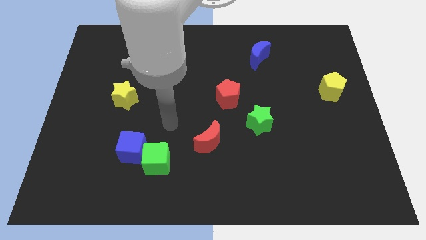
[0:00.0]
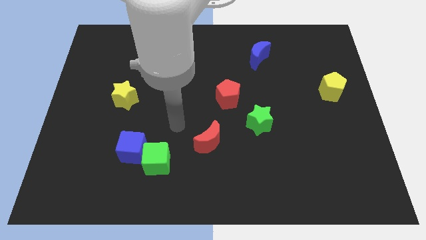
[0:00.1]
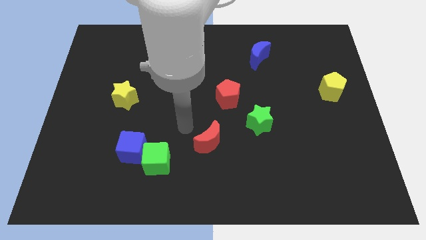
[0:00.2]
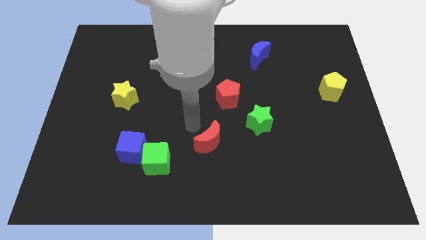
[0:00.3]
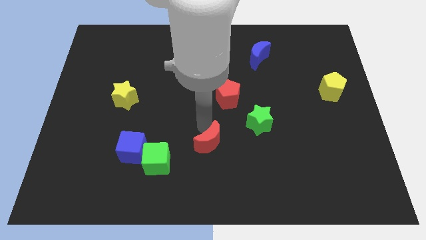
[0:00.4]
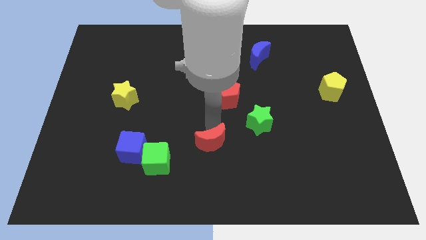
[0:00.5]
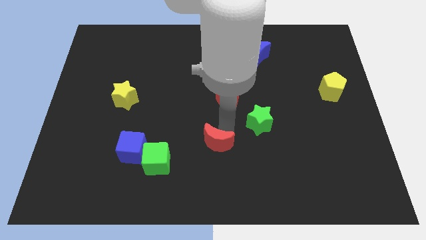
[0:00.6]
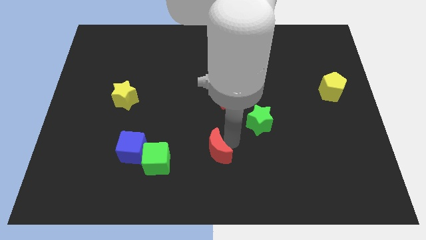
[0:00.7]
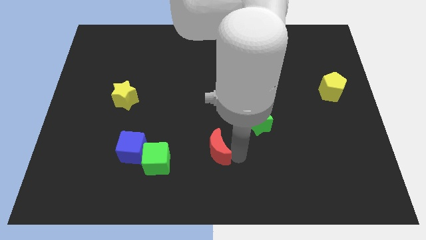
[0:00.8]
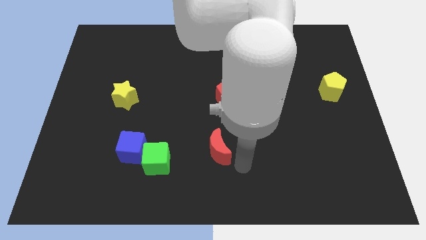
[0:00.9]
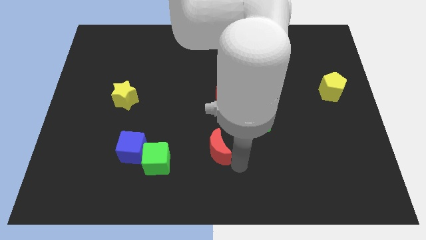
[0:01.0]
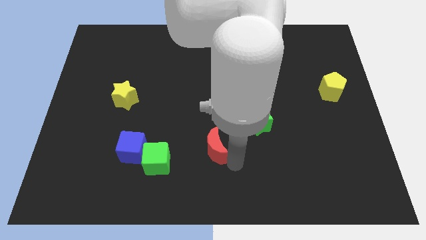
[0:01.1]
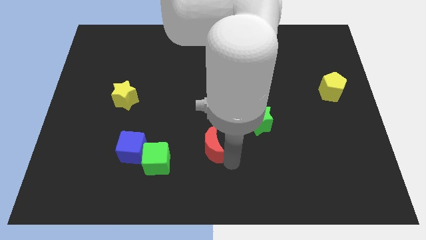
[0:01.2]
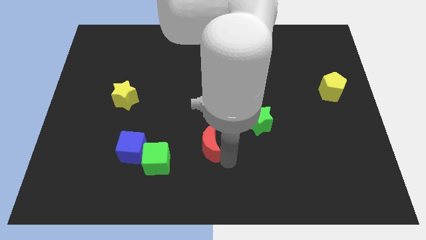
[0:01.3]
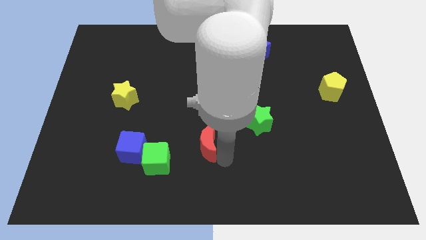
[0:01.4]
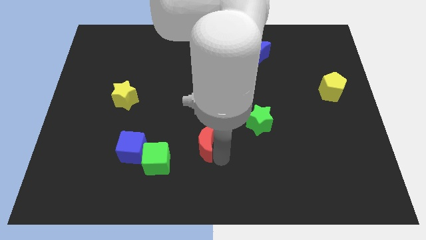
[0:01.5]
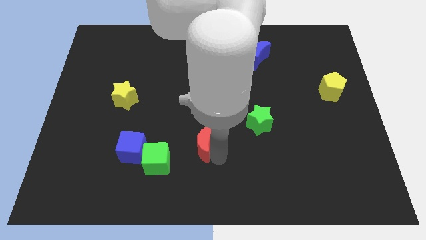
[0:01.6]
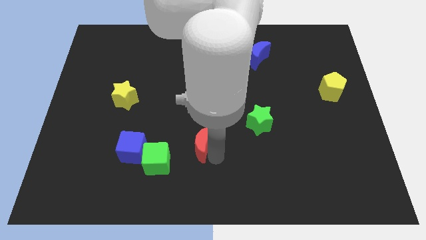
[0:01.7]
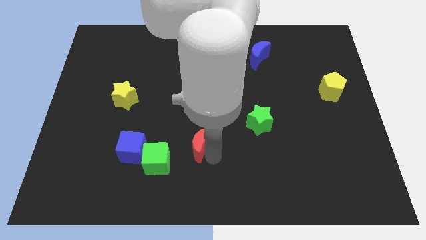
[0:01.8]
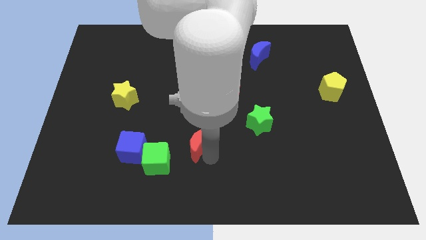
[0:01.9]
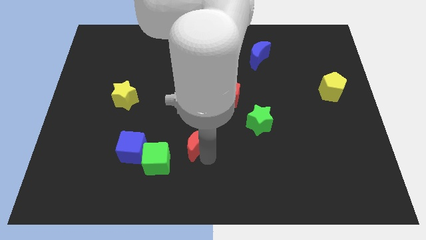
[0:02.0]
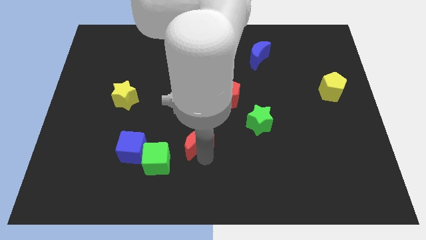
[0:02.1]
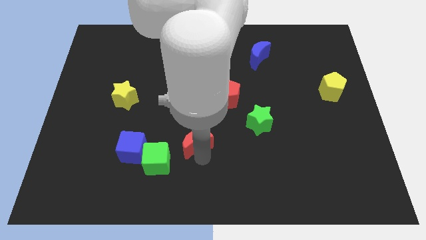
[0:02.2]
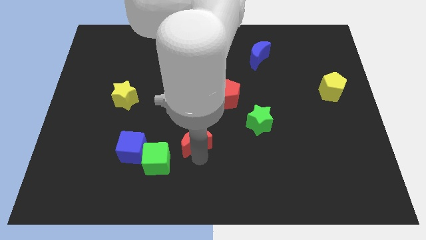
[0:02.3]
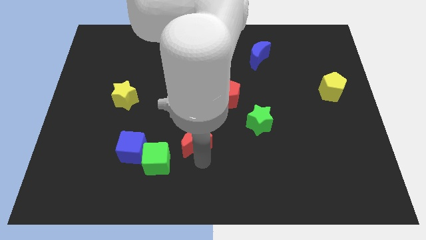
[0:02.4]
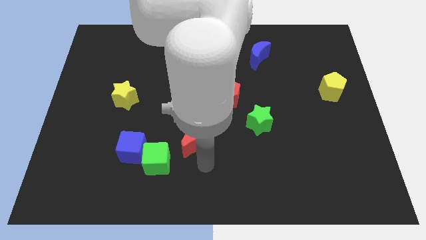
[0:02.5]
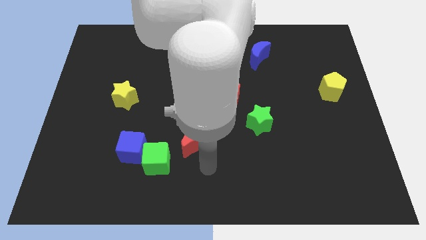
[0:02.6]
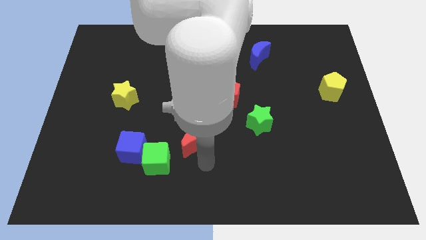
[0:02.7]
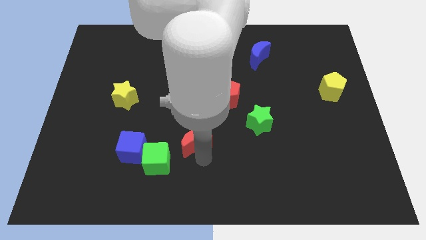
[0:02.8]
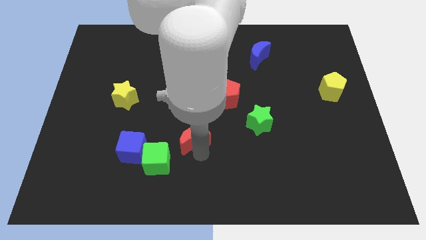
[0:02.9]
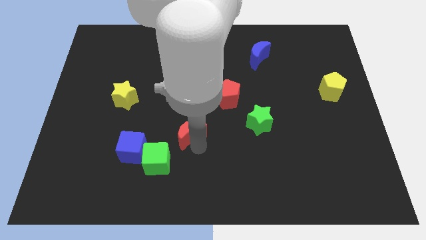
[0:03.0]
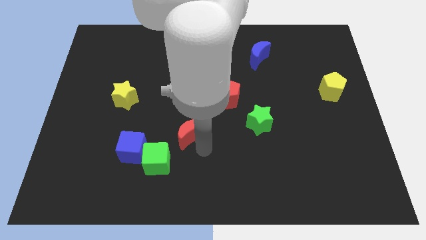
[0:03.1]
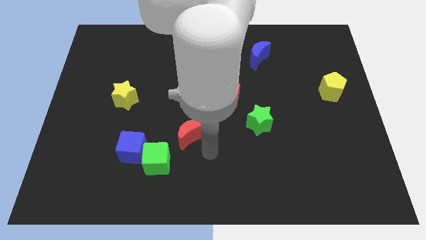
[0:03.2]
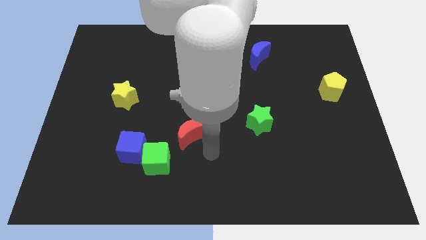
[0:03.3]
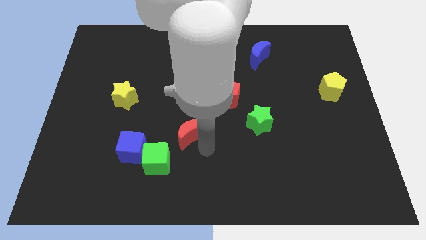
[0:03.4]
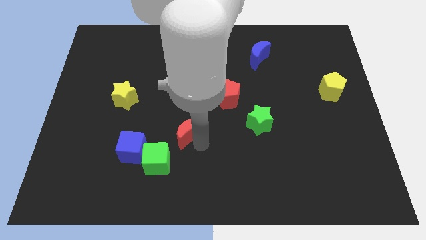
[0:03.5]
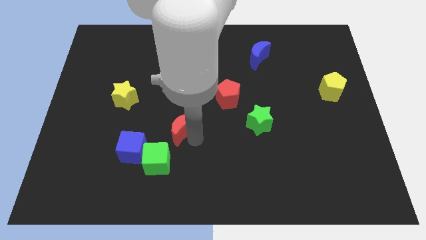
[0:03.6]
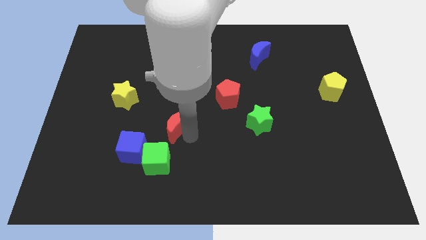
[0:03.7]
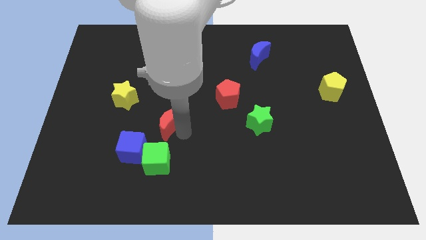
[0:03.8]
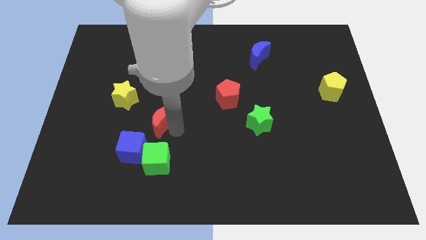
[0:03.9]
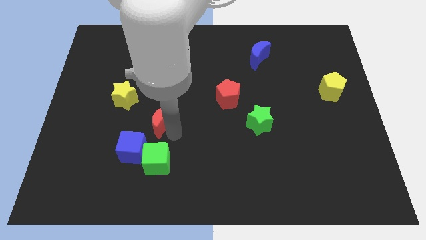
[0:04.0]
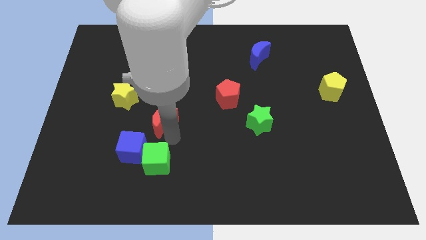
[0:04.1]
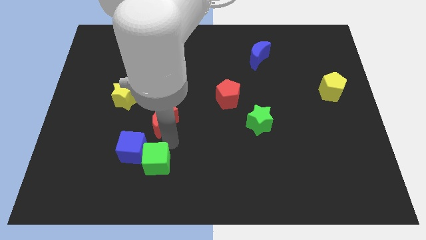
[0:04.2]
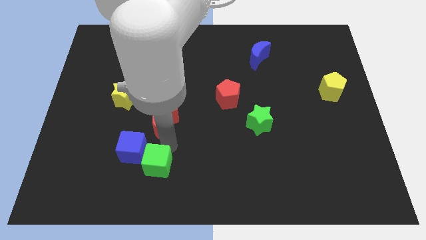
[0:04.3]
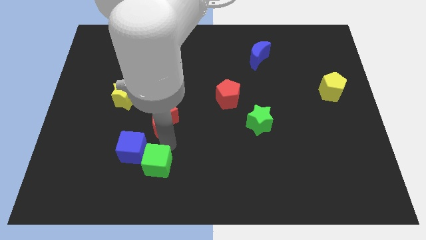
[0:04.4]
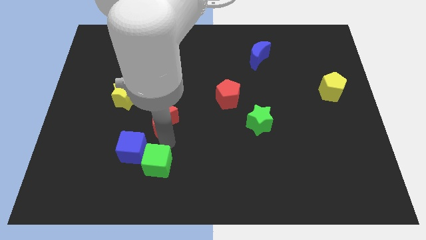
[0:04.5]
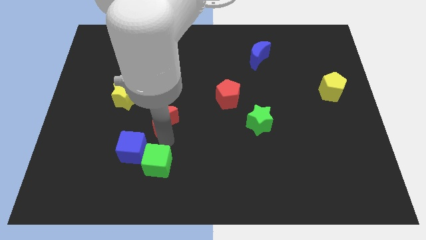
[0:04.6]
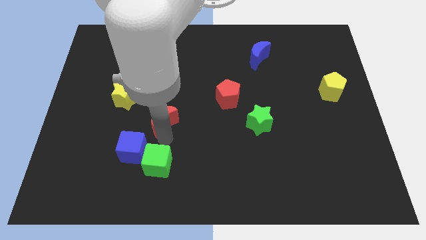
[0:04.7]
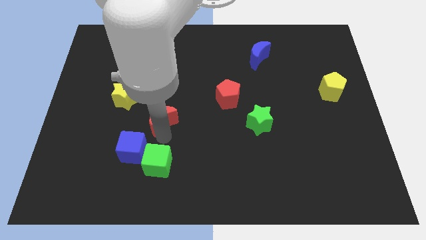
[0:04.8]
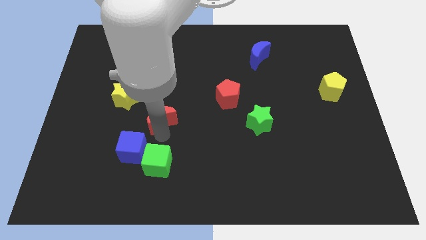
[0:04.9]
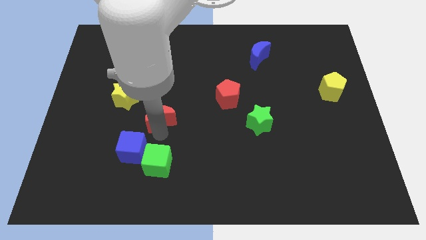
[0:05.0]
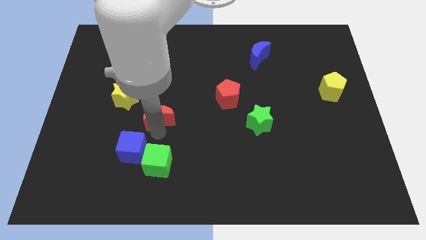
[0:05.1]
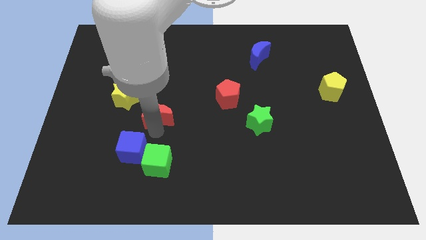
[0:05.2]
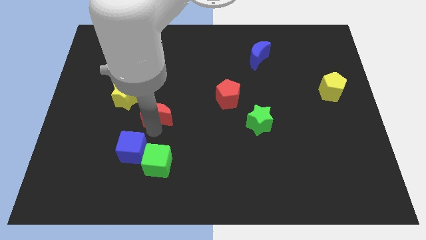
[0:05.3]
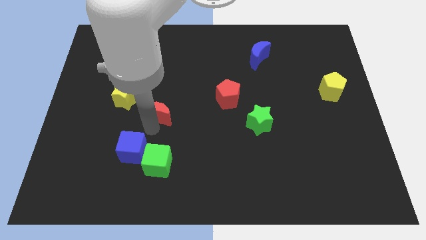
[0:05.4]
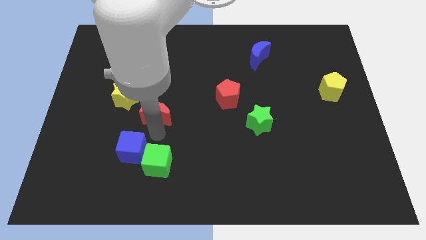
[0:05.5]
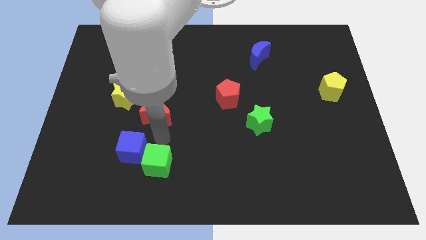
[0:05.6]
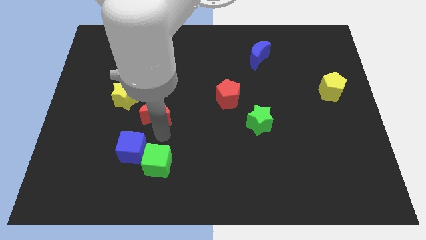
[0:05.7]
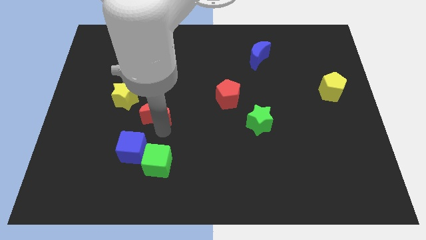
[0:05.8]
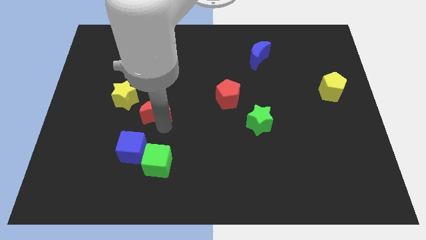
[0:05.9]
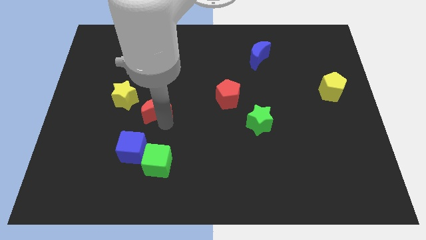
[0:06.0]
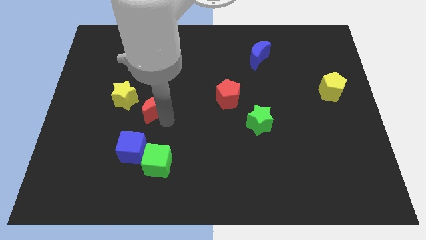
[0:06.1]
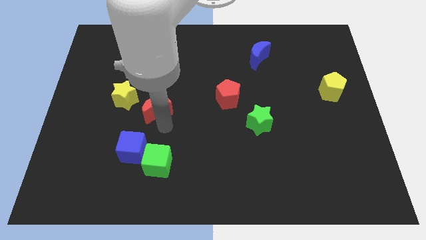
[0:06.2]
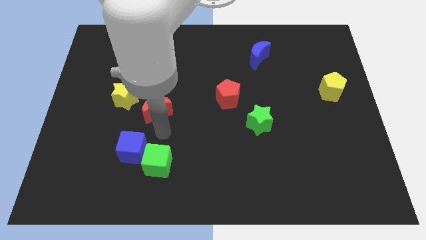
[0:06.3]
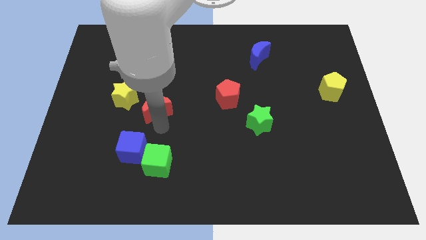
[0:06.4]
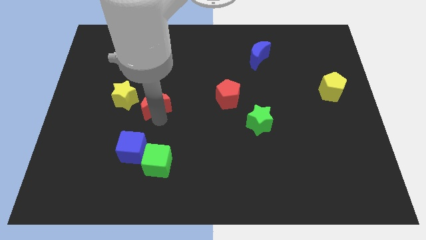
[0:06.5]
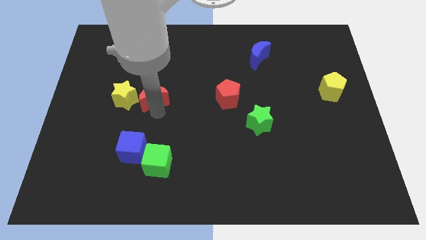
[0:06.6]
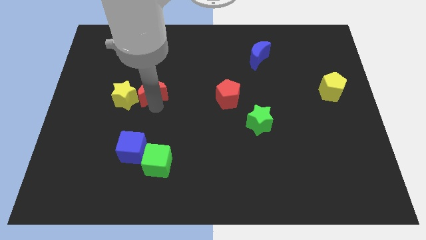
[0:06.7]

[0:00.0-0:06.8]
push the red moon to the top right side of the yellow star

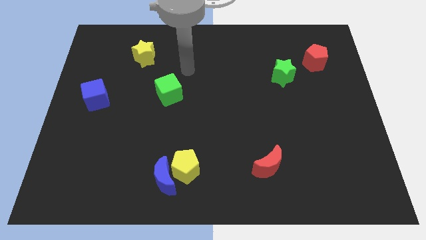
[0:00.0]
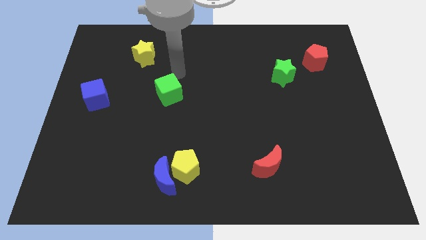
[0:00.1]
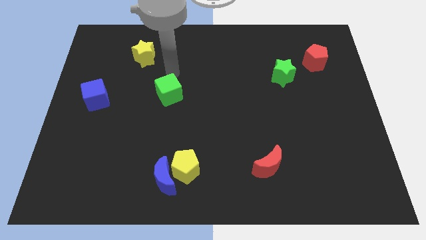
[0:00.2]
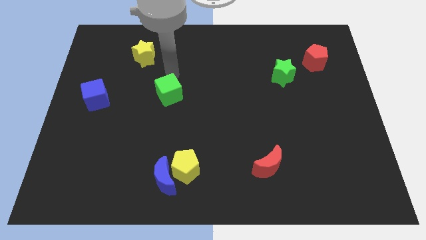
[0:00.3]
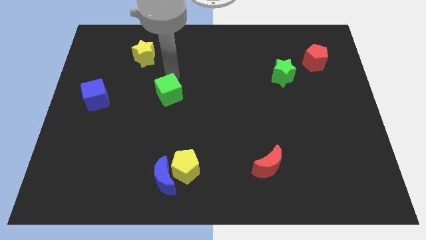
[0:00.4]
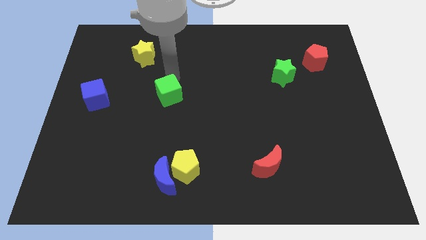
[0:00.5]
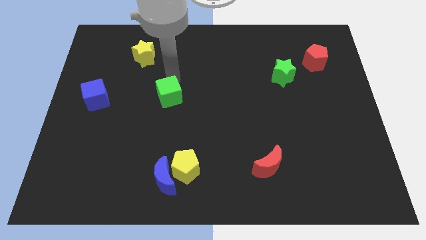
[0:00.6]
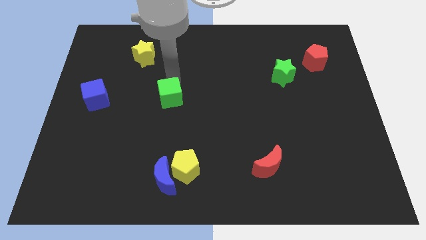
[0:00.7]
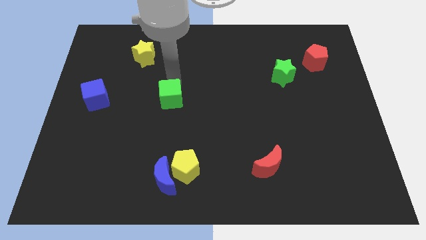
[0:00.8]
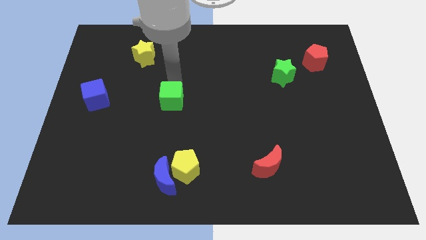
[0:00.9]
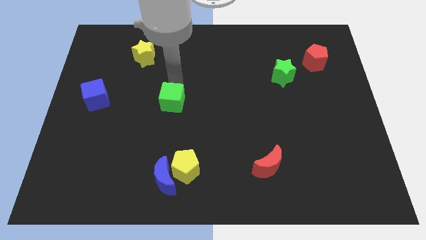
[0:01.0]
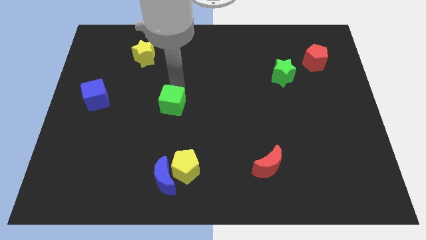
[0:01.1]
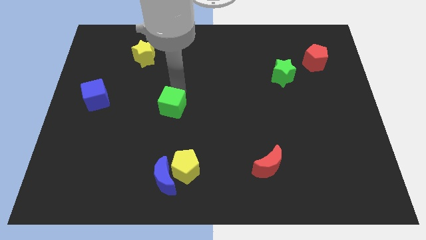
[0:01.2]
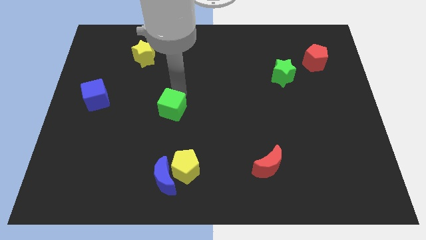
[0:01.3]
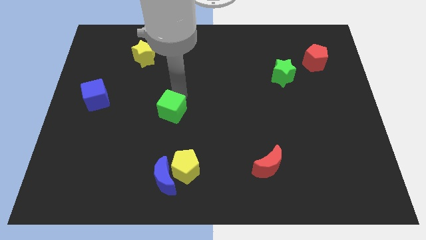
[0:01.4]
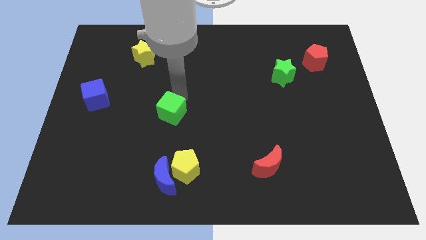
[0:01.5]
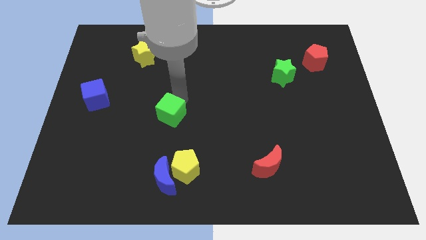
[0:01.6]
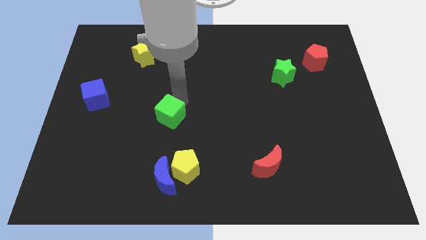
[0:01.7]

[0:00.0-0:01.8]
slide the green cube above the blue moon
